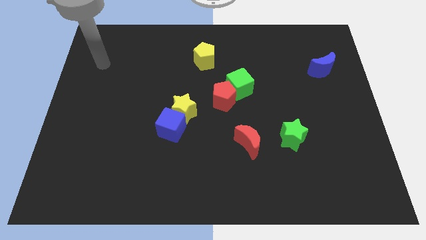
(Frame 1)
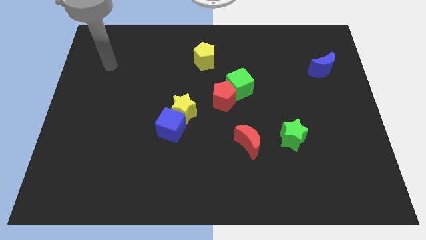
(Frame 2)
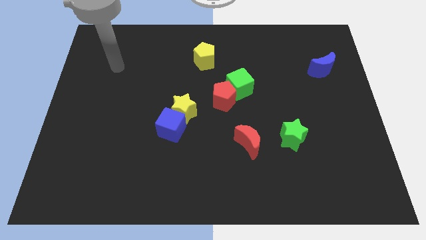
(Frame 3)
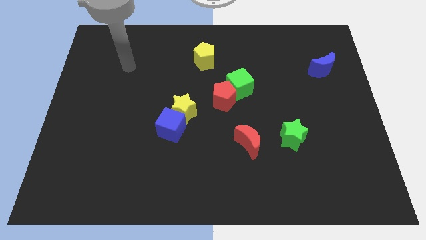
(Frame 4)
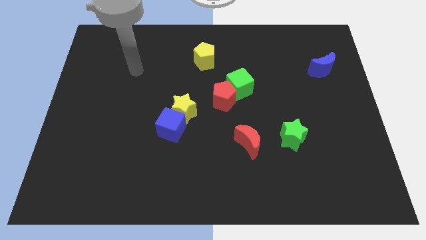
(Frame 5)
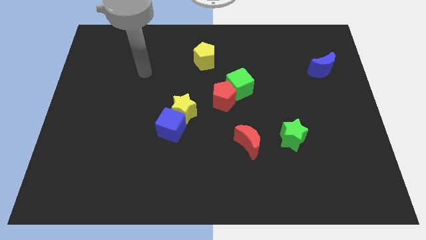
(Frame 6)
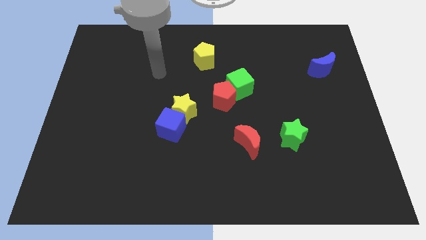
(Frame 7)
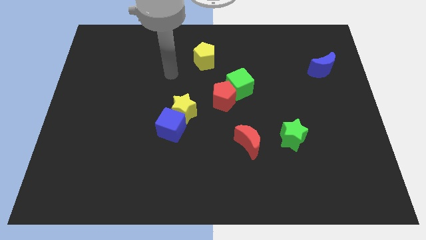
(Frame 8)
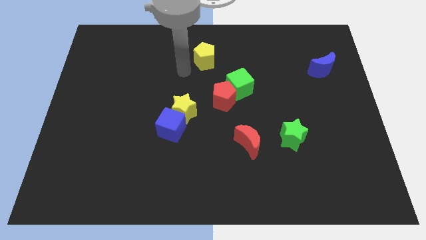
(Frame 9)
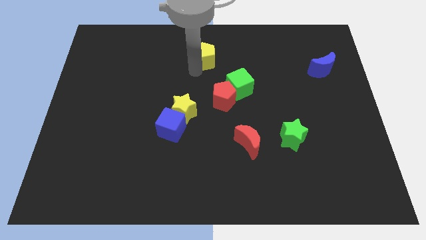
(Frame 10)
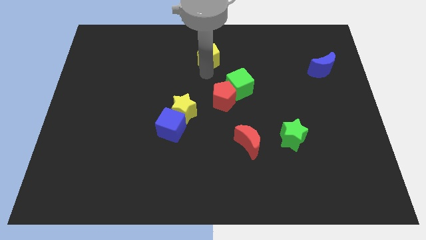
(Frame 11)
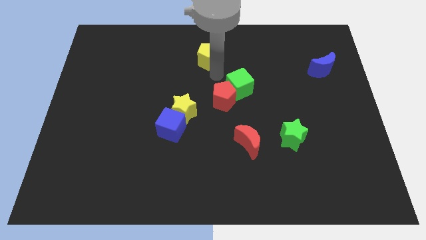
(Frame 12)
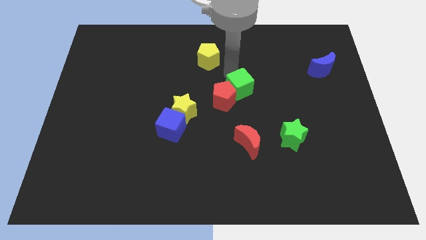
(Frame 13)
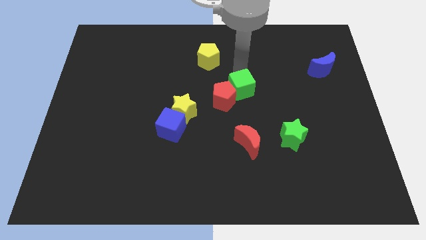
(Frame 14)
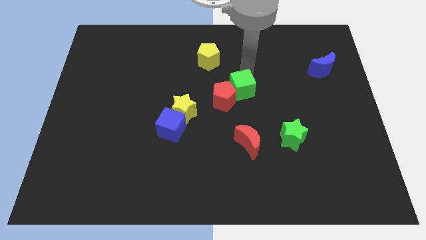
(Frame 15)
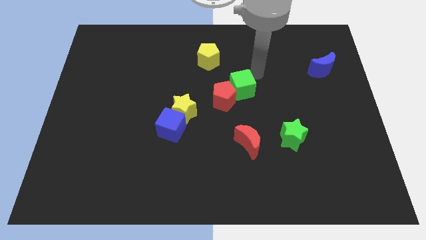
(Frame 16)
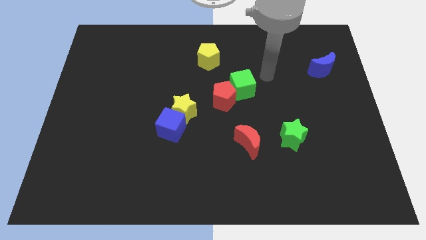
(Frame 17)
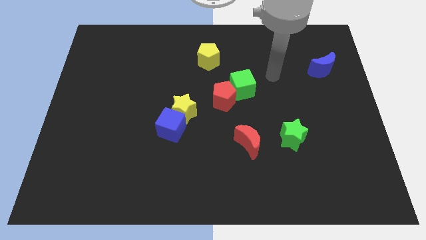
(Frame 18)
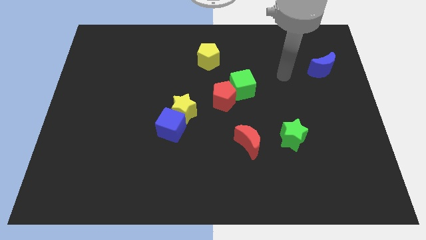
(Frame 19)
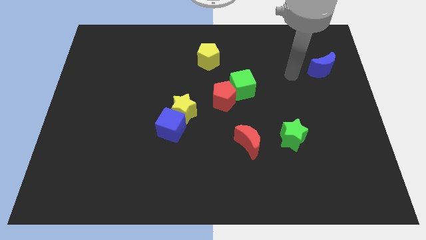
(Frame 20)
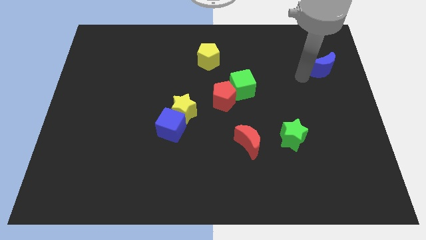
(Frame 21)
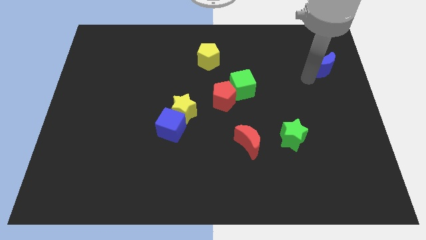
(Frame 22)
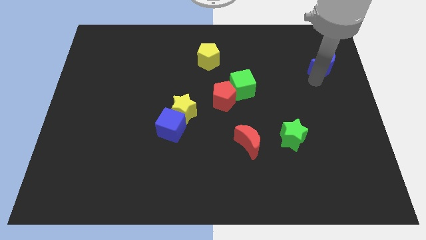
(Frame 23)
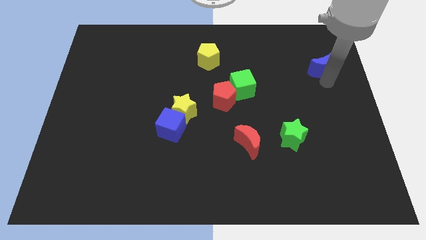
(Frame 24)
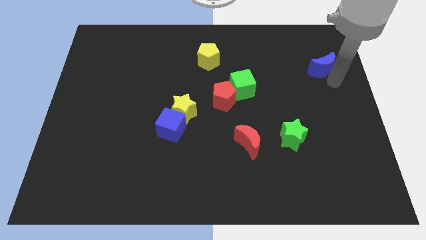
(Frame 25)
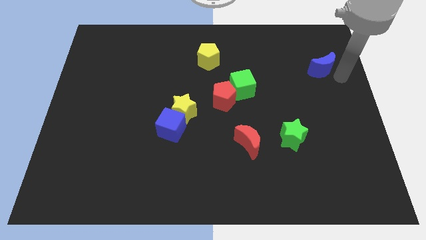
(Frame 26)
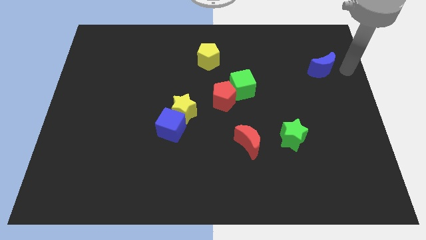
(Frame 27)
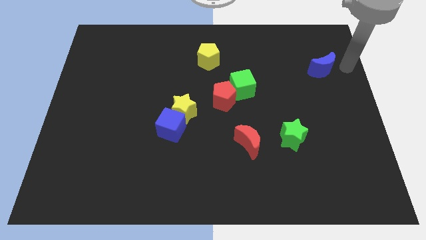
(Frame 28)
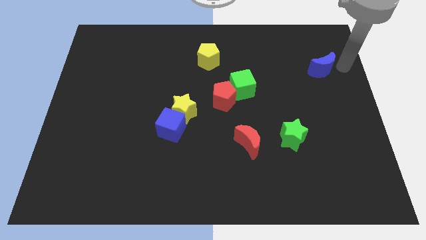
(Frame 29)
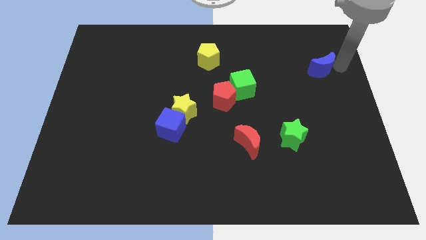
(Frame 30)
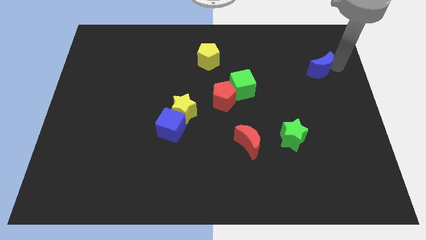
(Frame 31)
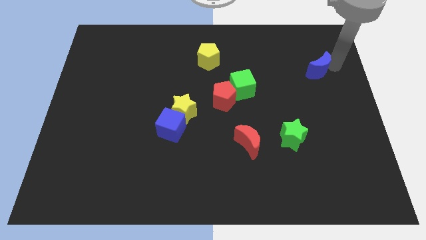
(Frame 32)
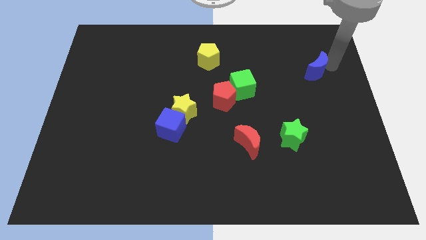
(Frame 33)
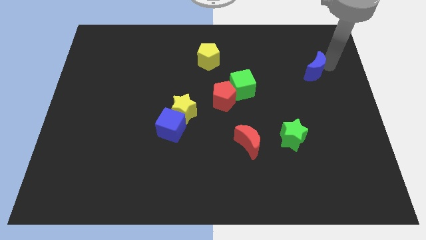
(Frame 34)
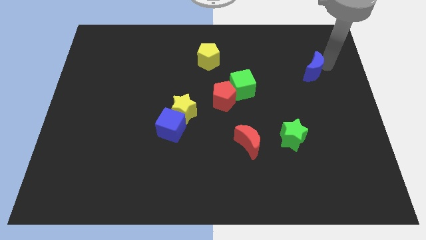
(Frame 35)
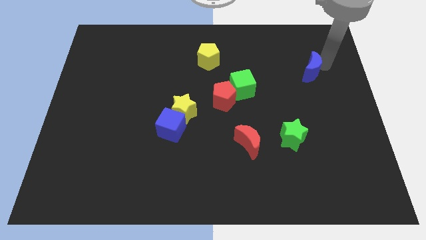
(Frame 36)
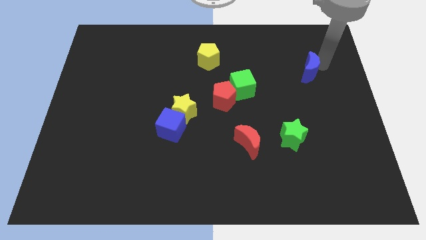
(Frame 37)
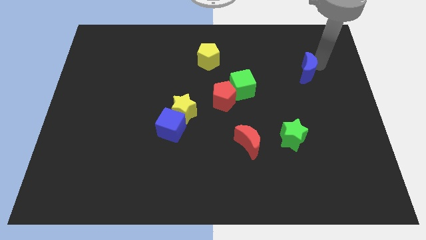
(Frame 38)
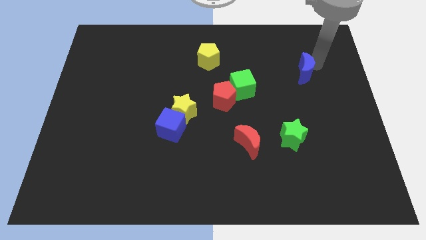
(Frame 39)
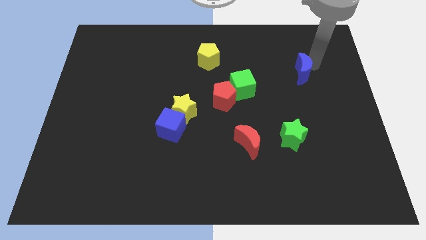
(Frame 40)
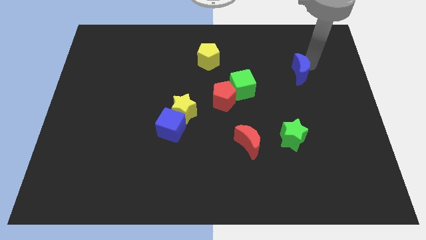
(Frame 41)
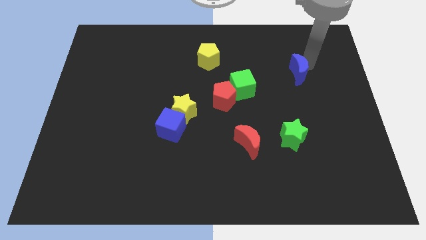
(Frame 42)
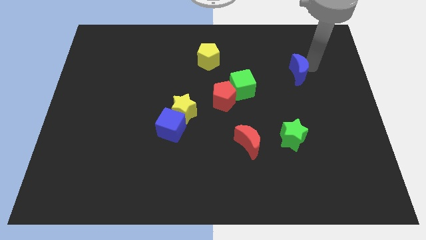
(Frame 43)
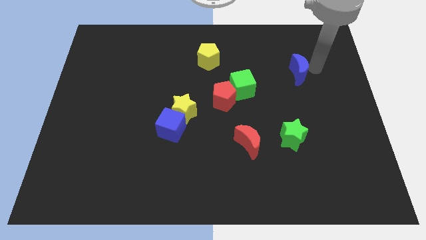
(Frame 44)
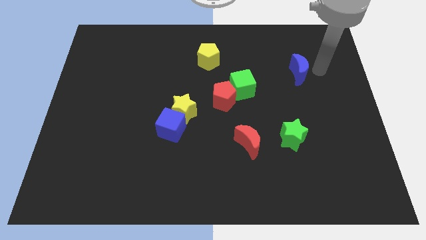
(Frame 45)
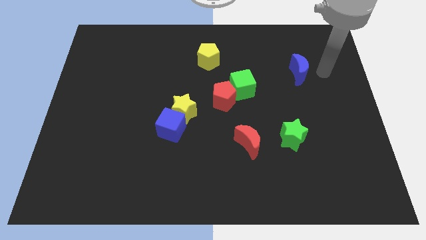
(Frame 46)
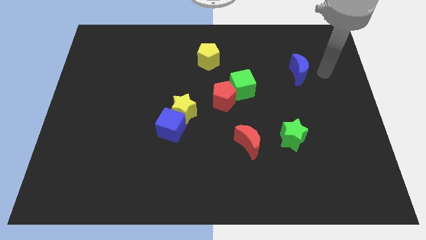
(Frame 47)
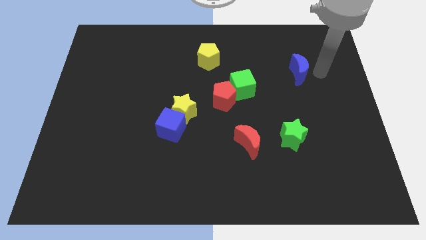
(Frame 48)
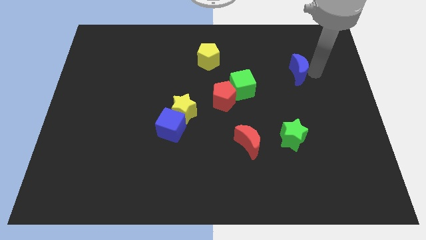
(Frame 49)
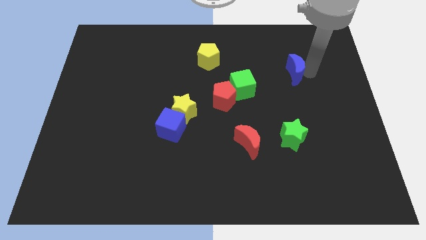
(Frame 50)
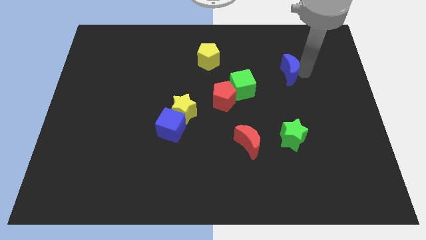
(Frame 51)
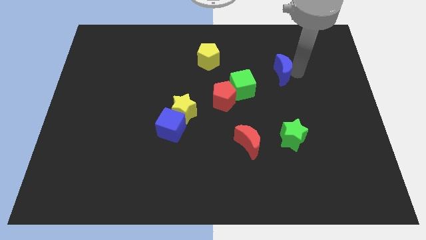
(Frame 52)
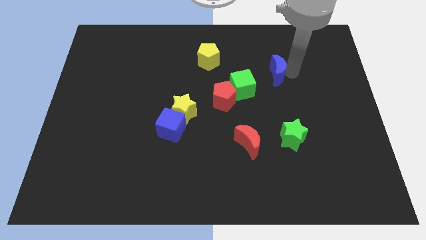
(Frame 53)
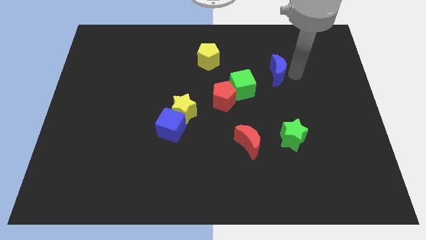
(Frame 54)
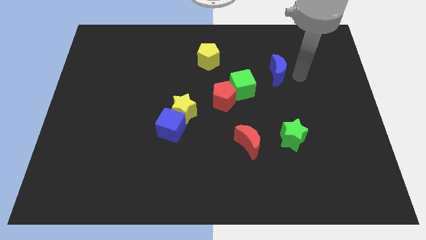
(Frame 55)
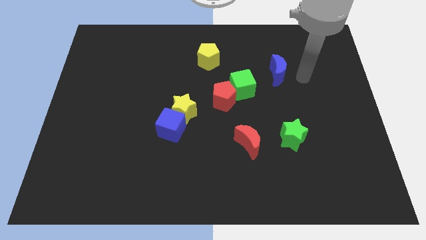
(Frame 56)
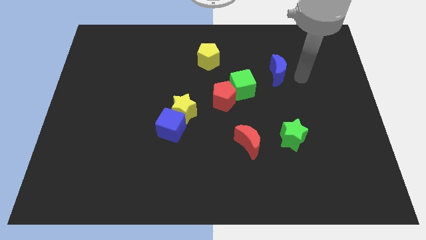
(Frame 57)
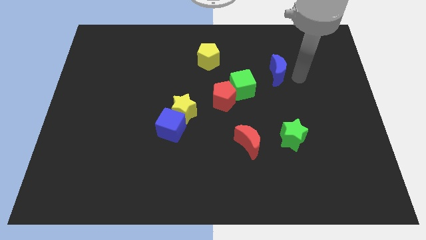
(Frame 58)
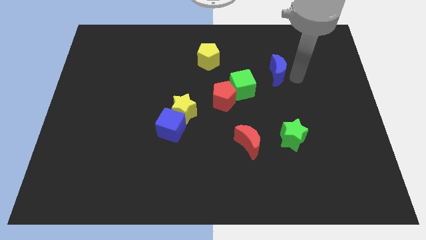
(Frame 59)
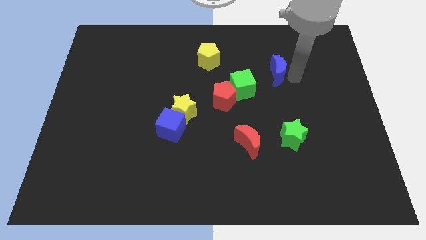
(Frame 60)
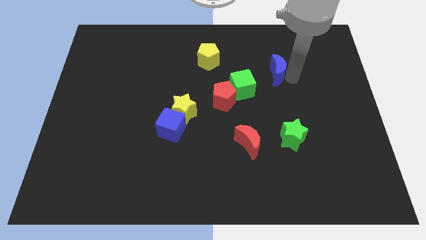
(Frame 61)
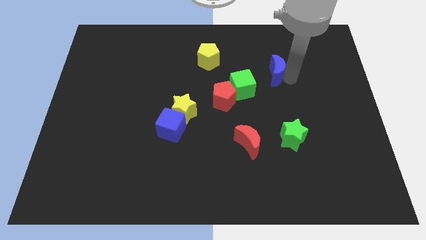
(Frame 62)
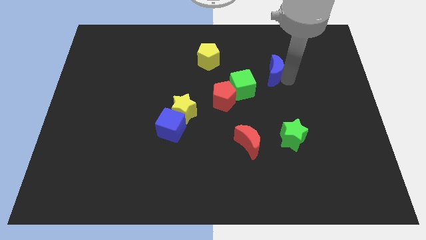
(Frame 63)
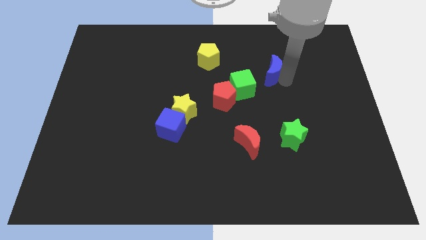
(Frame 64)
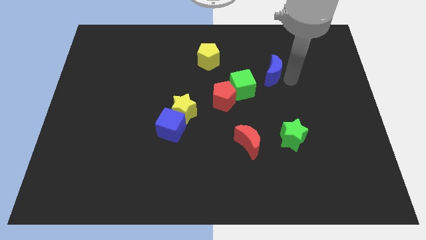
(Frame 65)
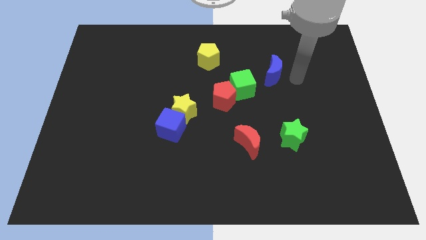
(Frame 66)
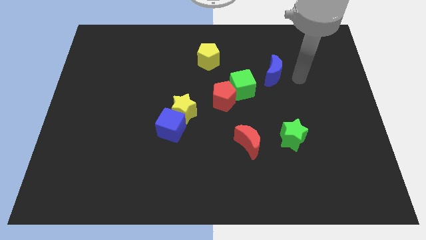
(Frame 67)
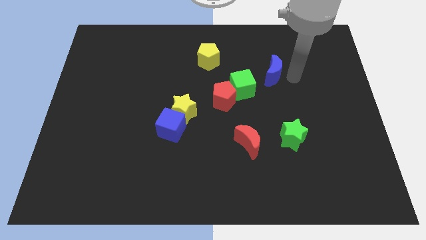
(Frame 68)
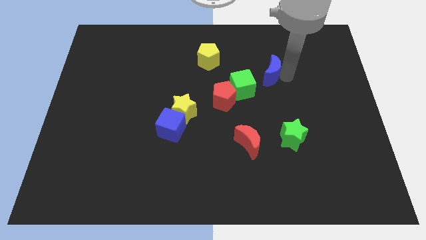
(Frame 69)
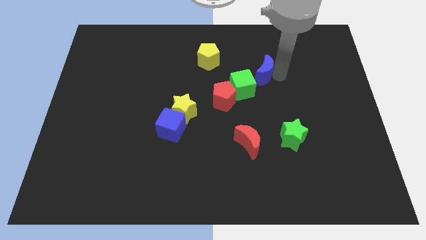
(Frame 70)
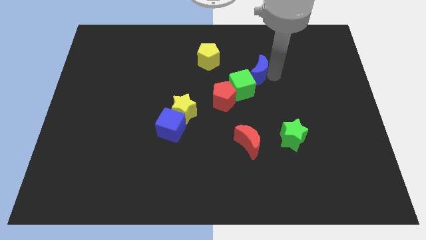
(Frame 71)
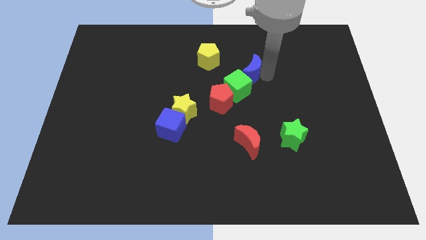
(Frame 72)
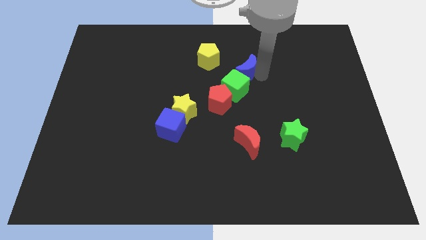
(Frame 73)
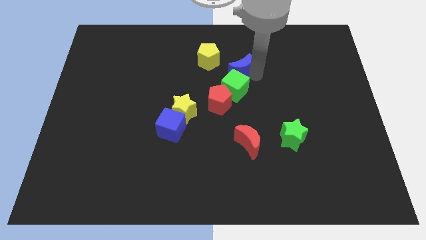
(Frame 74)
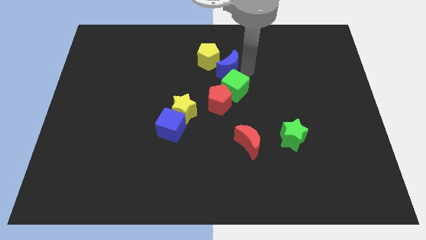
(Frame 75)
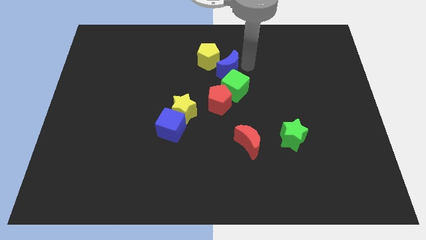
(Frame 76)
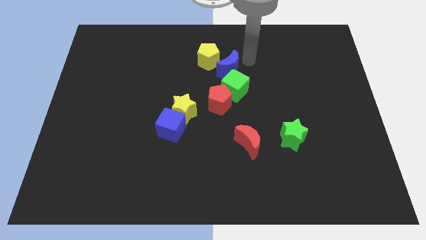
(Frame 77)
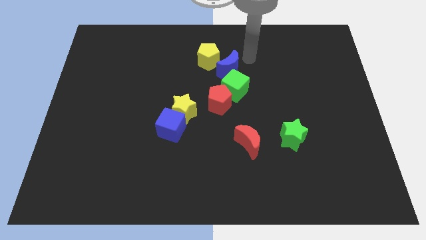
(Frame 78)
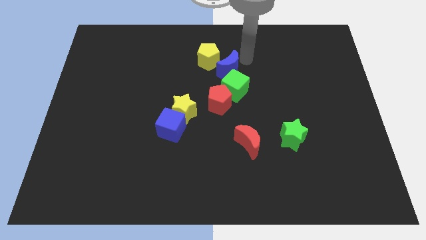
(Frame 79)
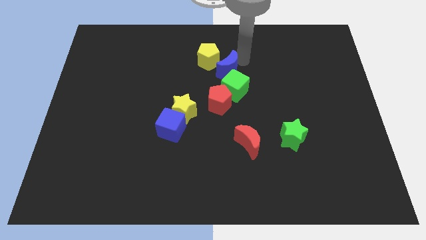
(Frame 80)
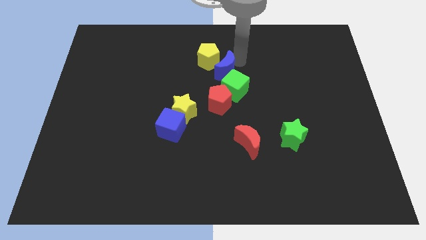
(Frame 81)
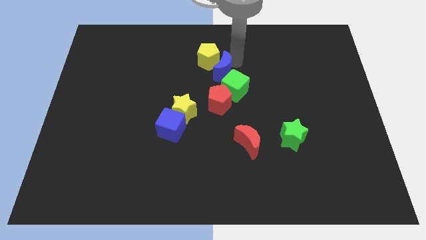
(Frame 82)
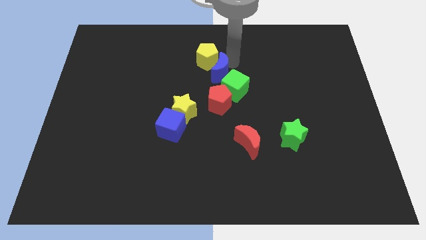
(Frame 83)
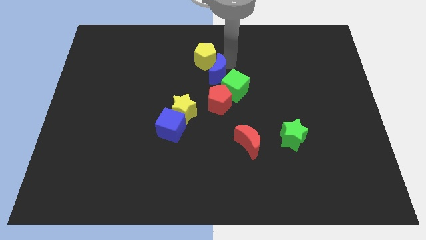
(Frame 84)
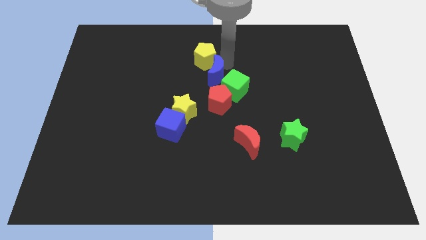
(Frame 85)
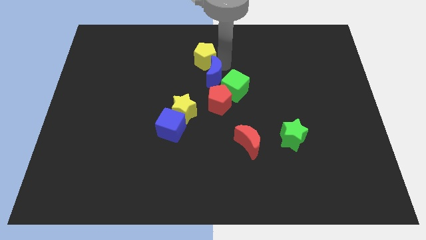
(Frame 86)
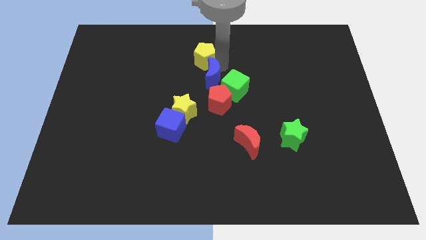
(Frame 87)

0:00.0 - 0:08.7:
move the blue moon to the top left of the red pentagon
